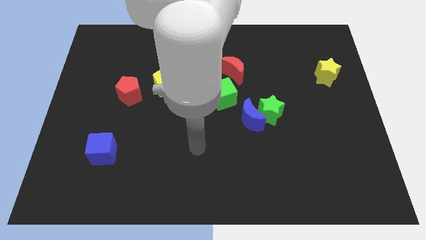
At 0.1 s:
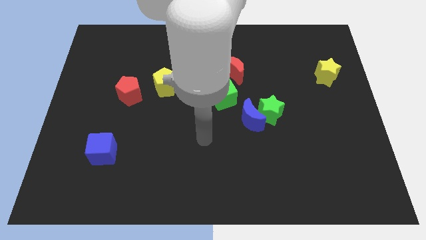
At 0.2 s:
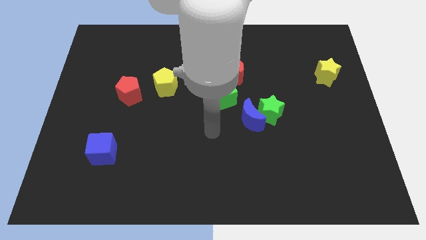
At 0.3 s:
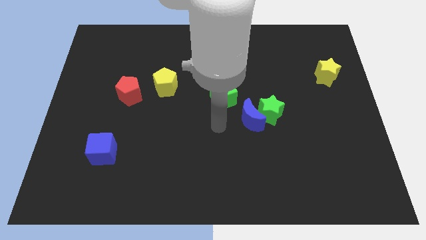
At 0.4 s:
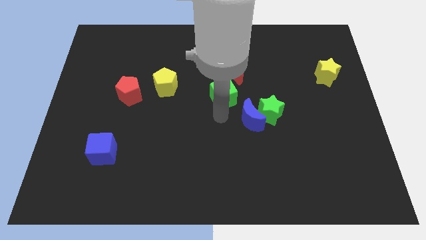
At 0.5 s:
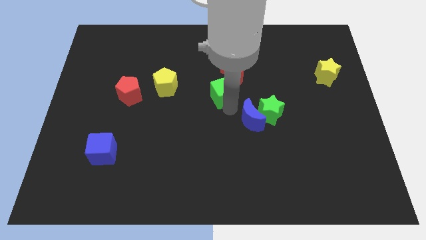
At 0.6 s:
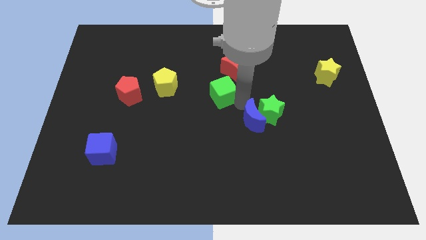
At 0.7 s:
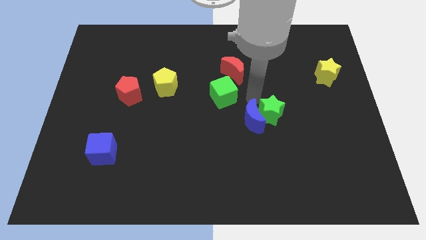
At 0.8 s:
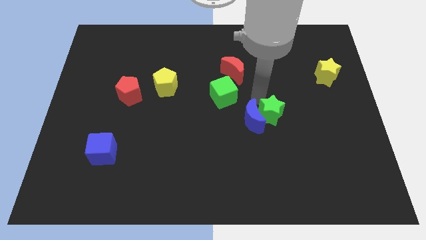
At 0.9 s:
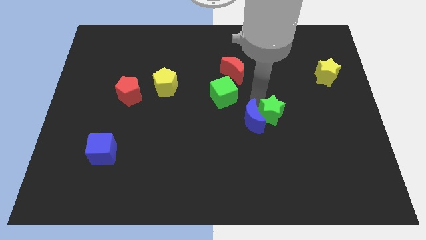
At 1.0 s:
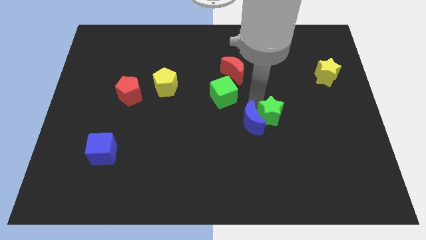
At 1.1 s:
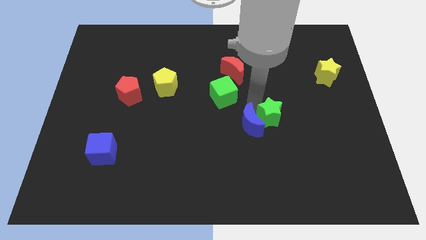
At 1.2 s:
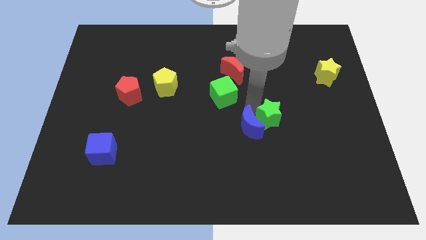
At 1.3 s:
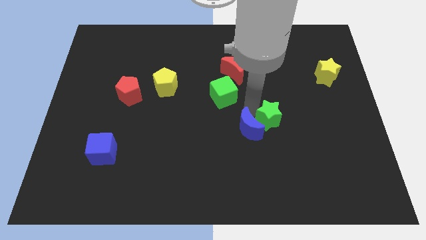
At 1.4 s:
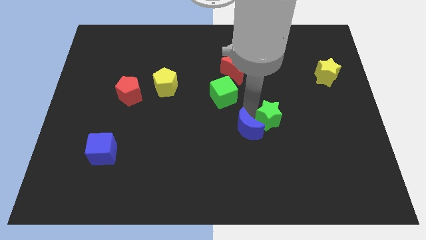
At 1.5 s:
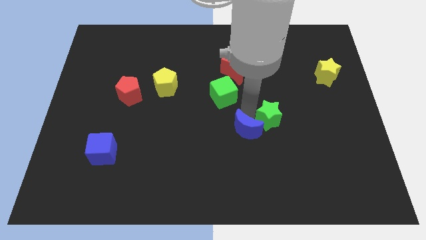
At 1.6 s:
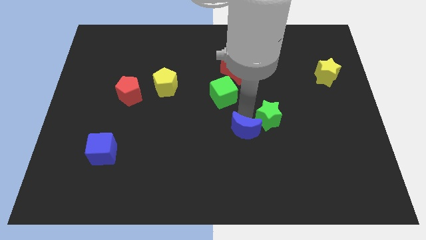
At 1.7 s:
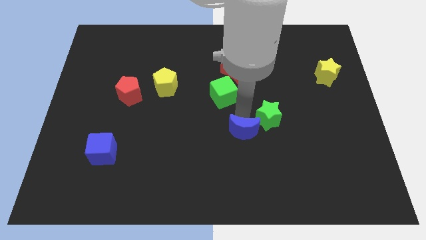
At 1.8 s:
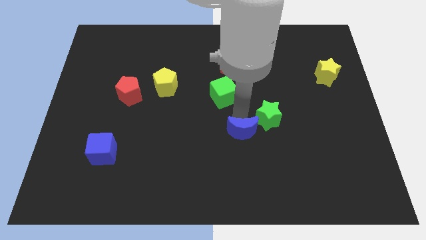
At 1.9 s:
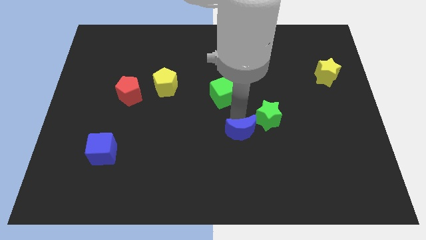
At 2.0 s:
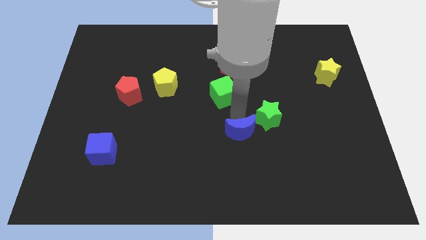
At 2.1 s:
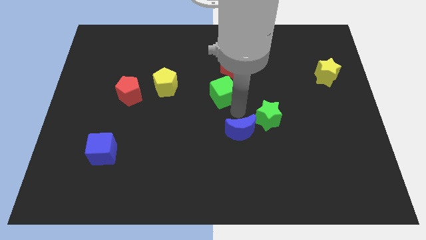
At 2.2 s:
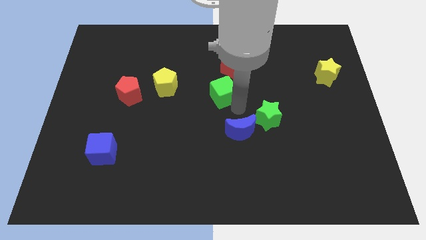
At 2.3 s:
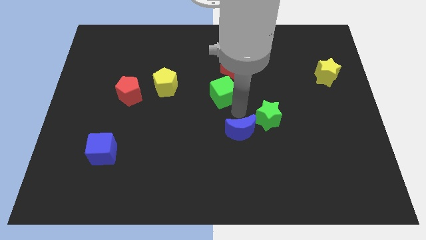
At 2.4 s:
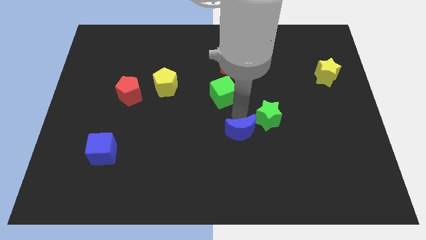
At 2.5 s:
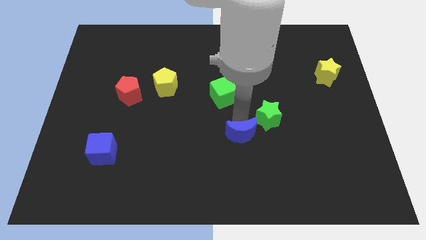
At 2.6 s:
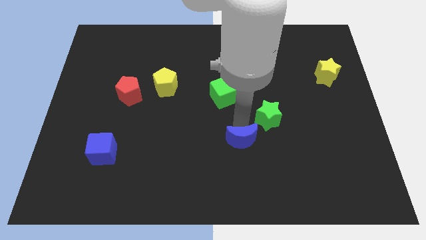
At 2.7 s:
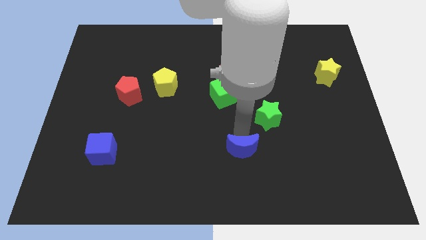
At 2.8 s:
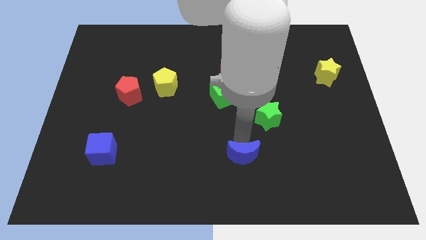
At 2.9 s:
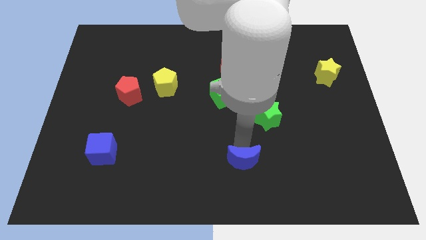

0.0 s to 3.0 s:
move the blue moon to the bottom side

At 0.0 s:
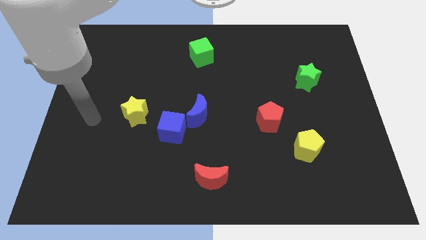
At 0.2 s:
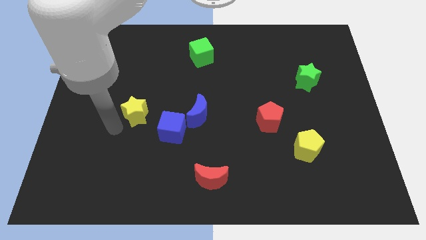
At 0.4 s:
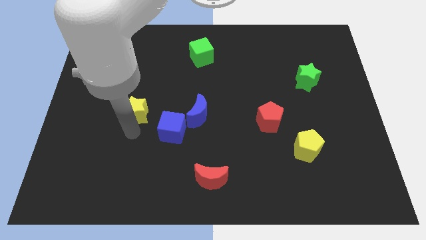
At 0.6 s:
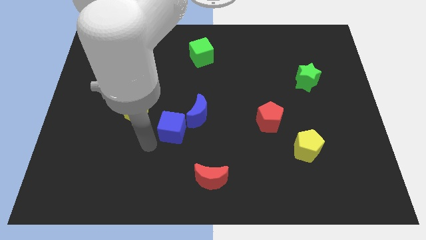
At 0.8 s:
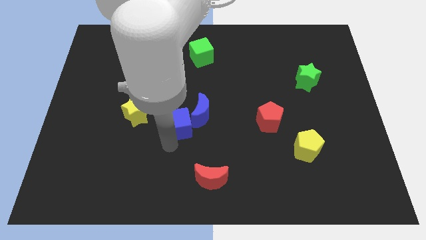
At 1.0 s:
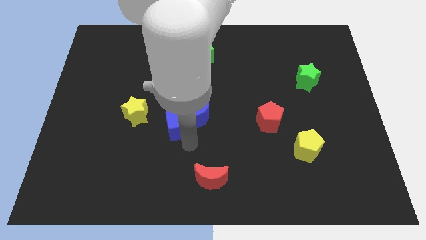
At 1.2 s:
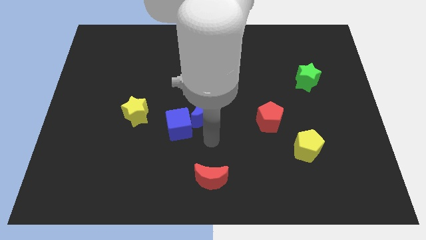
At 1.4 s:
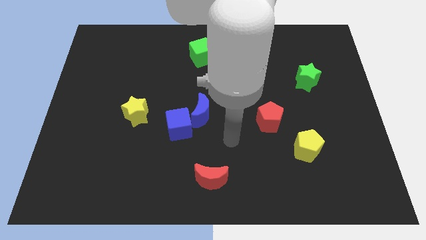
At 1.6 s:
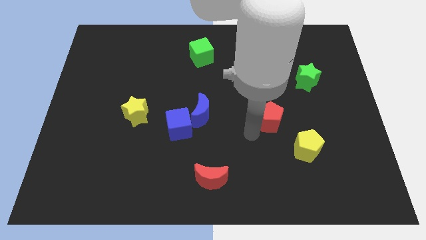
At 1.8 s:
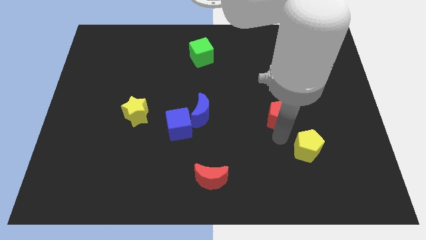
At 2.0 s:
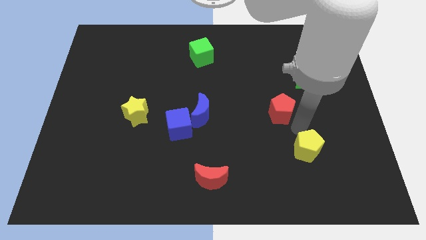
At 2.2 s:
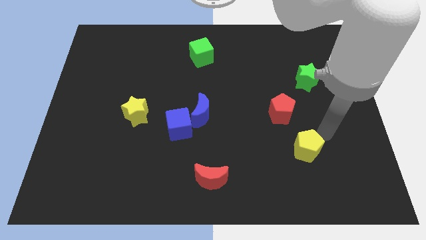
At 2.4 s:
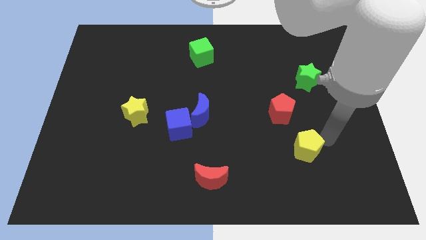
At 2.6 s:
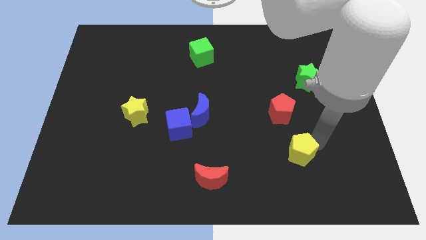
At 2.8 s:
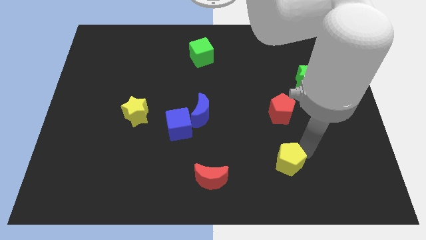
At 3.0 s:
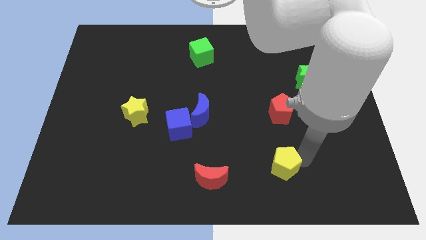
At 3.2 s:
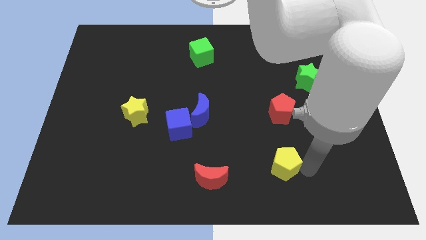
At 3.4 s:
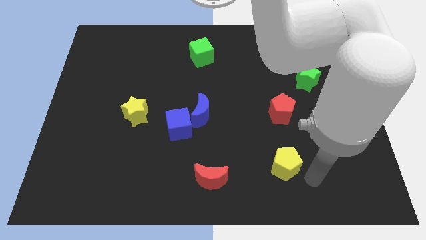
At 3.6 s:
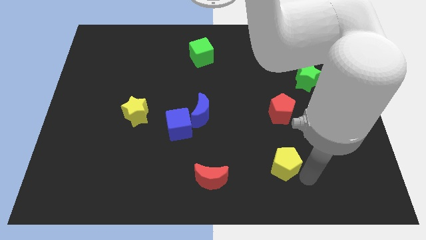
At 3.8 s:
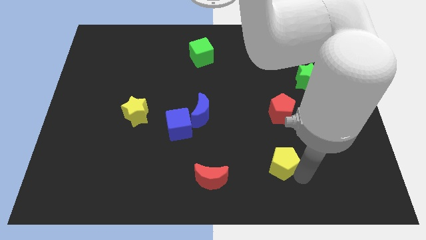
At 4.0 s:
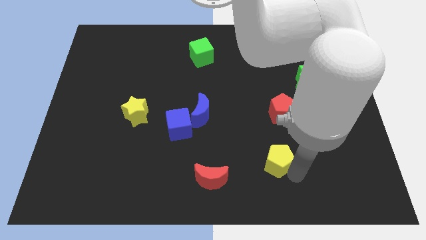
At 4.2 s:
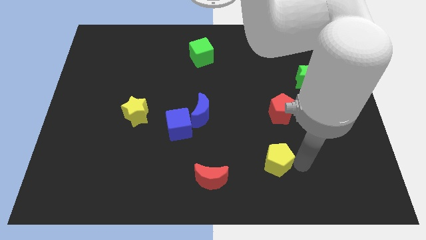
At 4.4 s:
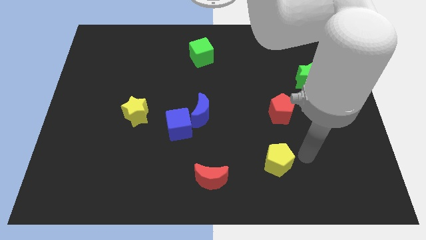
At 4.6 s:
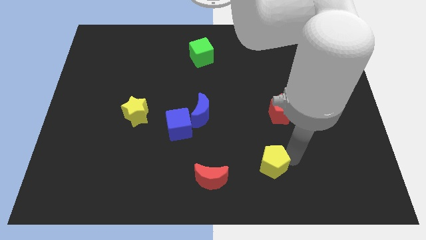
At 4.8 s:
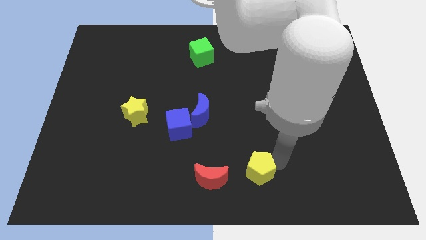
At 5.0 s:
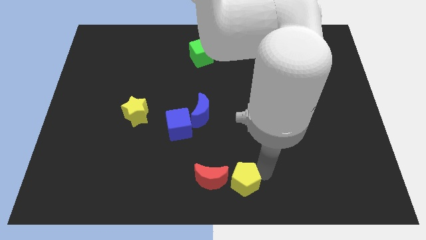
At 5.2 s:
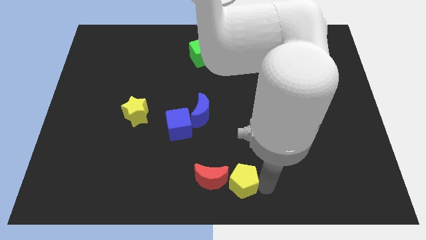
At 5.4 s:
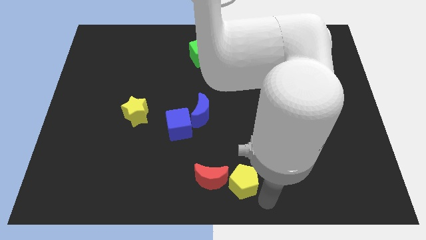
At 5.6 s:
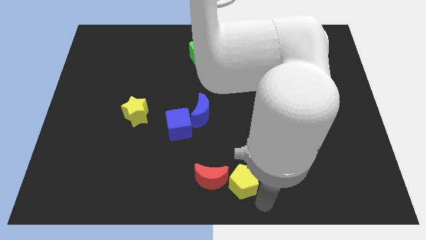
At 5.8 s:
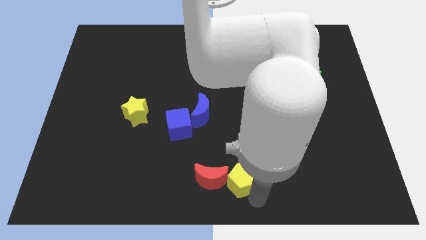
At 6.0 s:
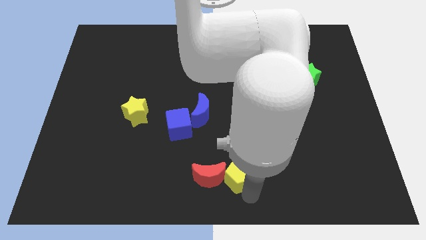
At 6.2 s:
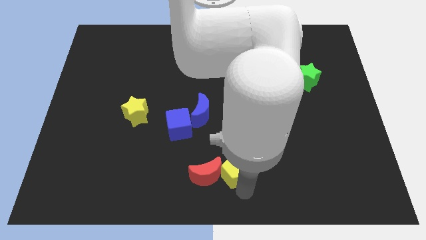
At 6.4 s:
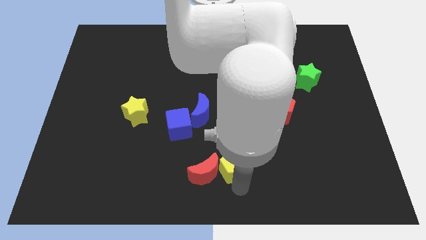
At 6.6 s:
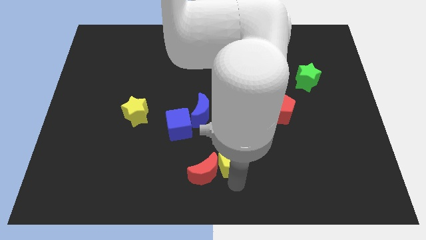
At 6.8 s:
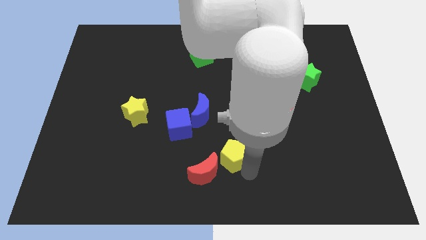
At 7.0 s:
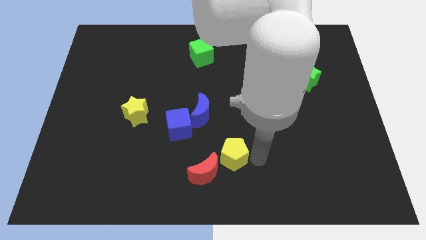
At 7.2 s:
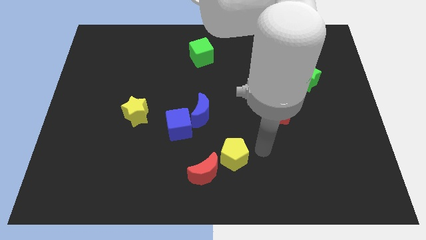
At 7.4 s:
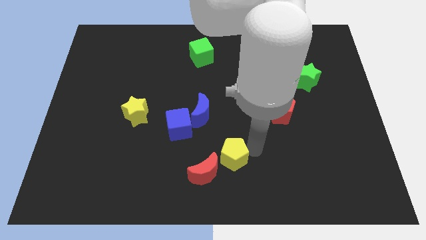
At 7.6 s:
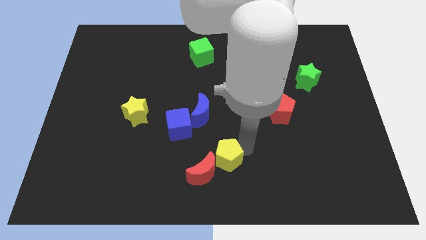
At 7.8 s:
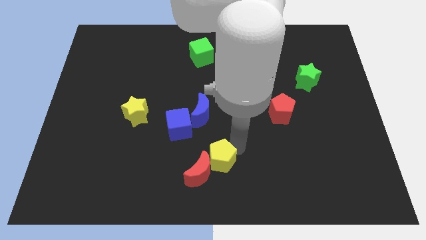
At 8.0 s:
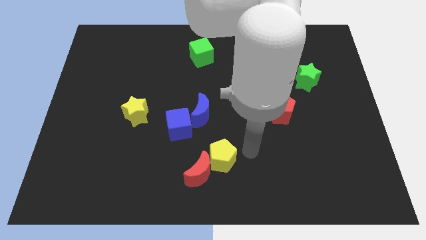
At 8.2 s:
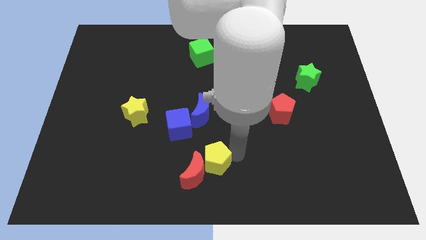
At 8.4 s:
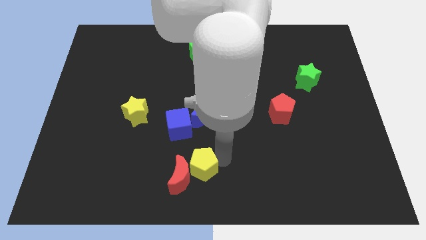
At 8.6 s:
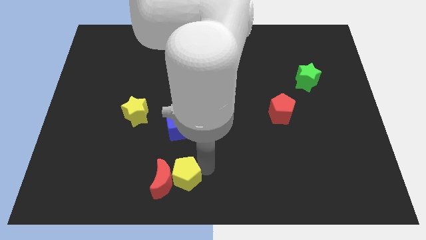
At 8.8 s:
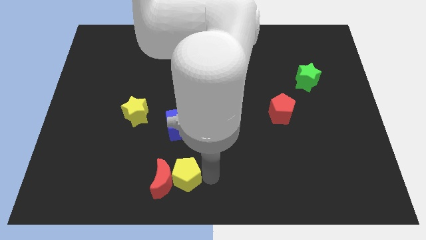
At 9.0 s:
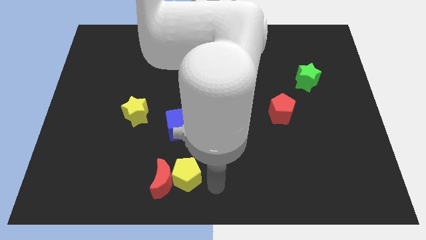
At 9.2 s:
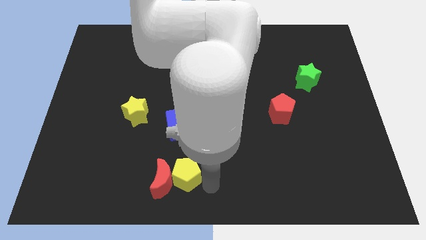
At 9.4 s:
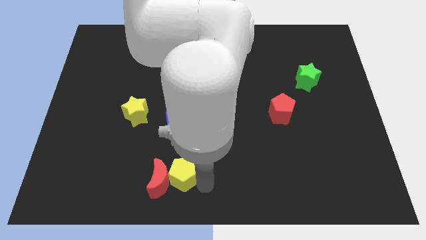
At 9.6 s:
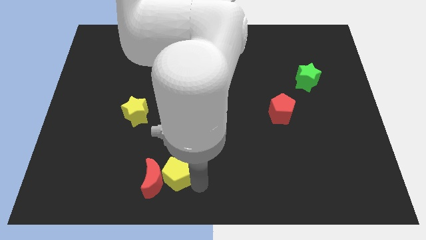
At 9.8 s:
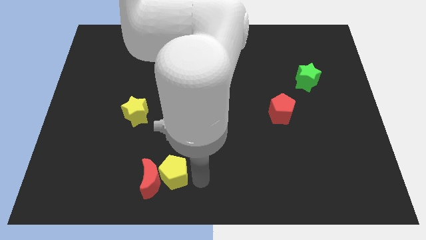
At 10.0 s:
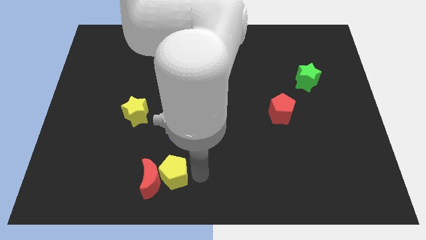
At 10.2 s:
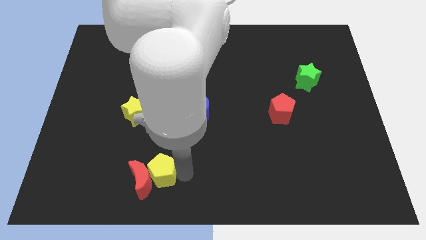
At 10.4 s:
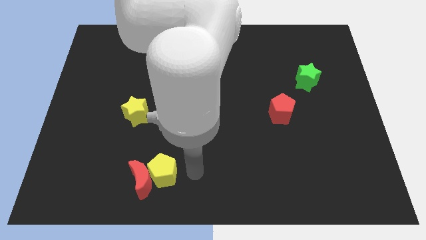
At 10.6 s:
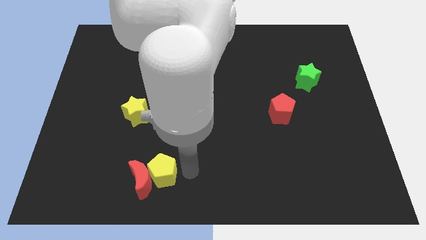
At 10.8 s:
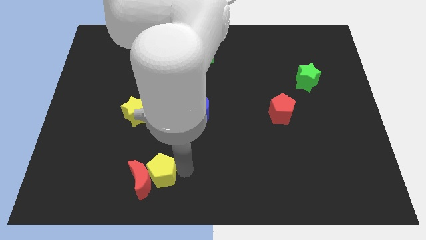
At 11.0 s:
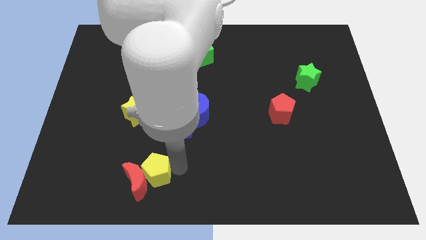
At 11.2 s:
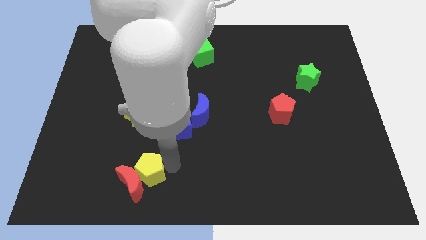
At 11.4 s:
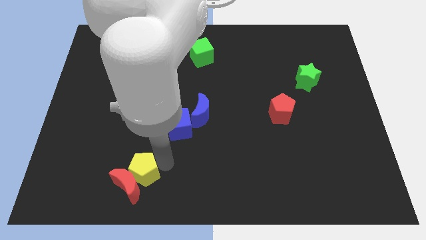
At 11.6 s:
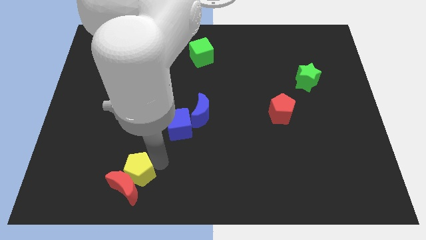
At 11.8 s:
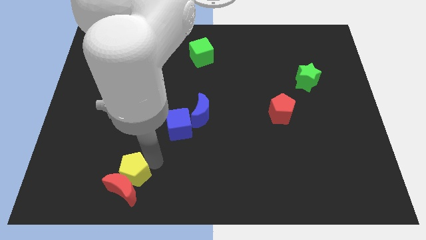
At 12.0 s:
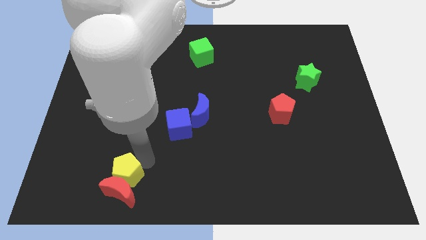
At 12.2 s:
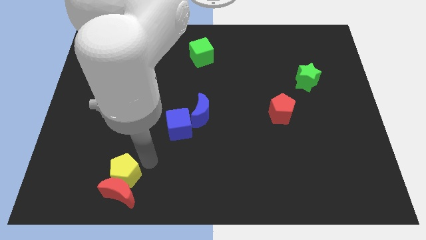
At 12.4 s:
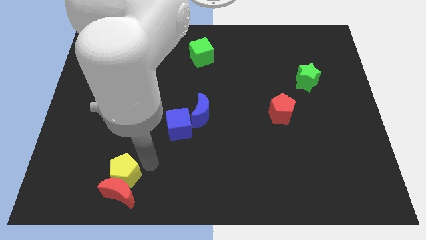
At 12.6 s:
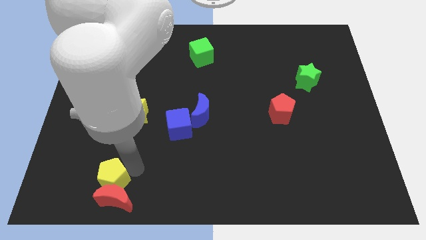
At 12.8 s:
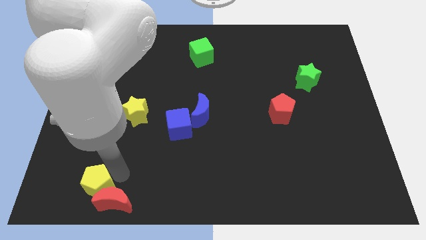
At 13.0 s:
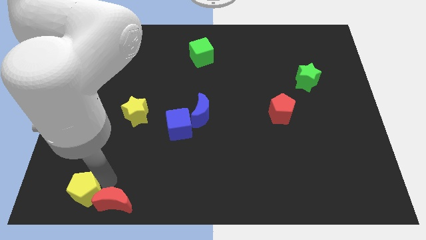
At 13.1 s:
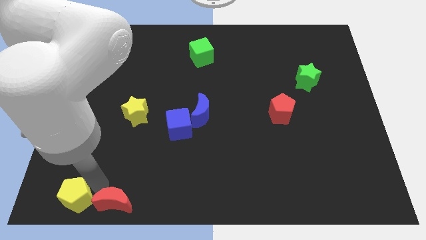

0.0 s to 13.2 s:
put the yellow pentagon to the lower left corner
